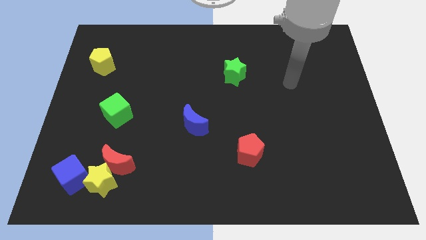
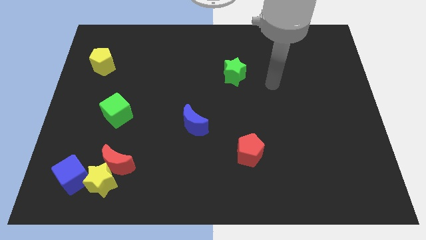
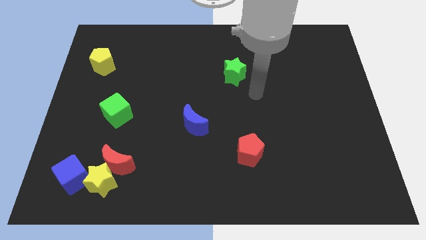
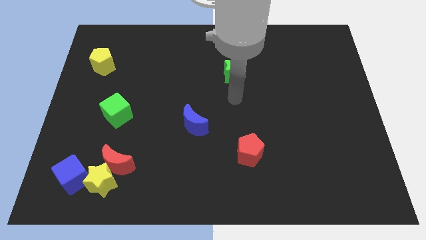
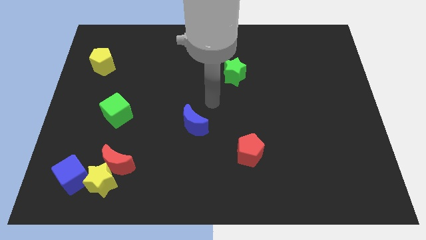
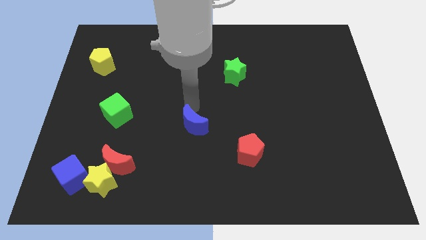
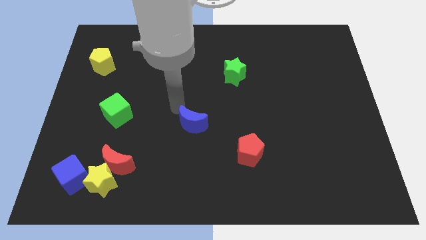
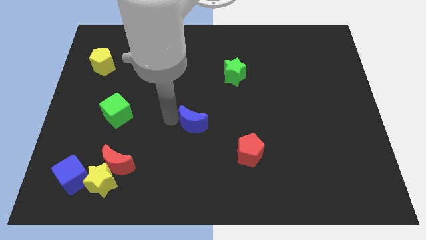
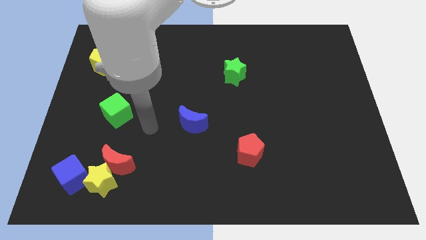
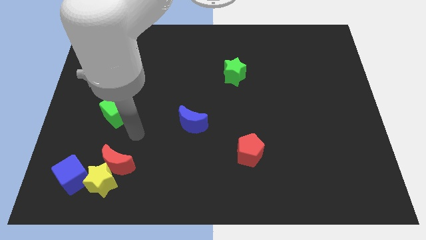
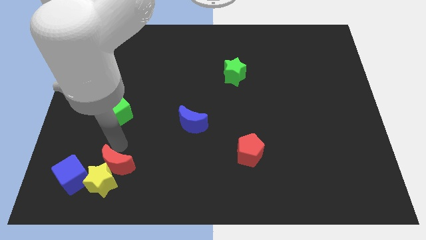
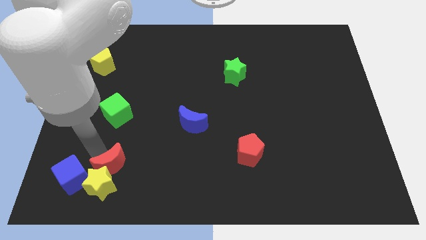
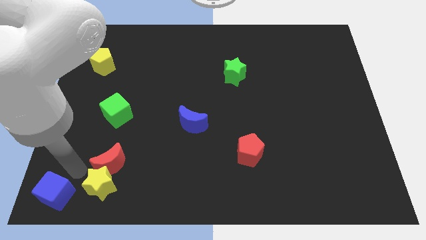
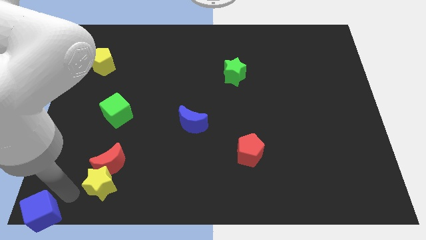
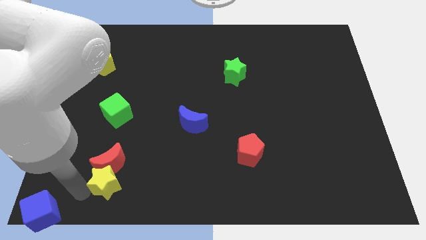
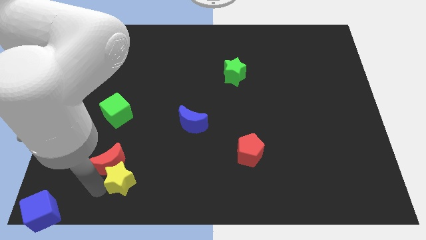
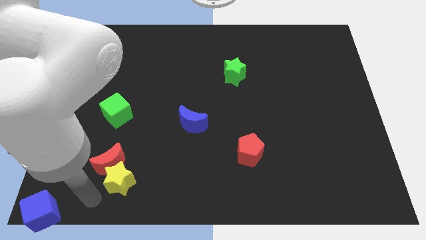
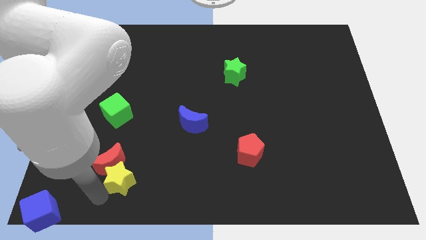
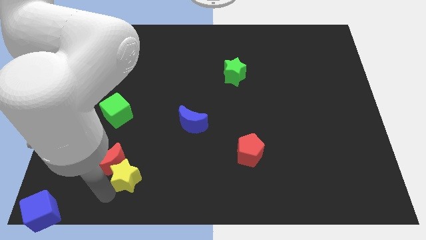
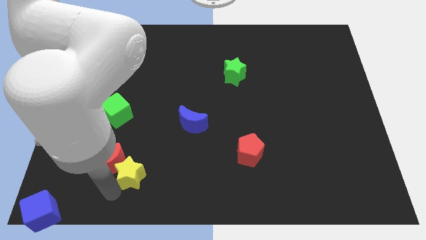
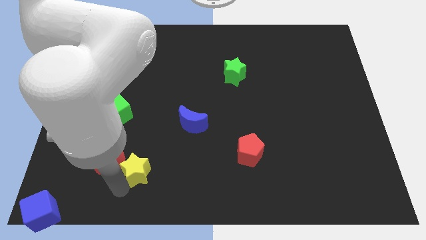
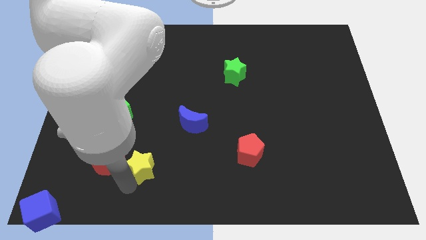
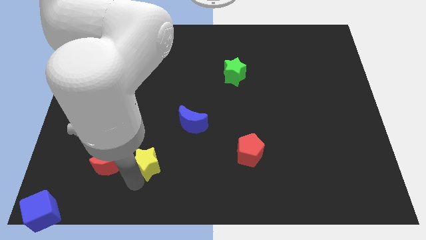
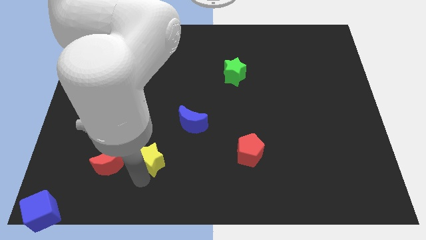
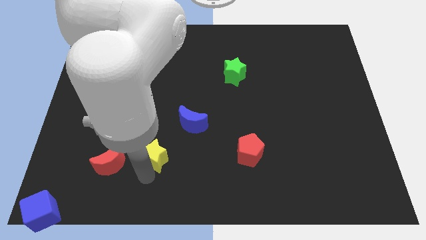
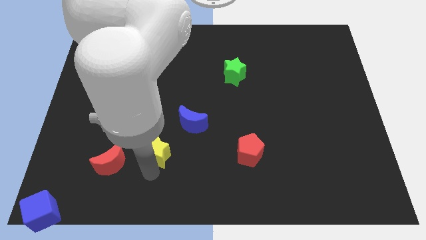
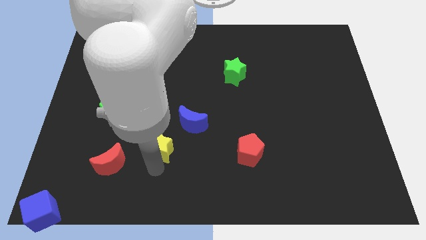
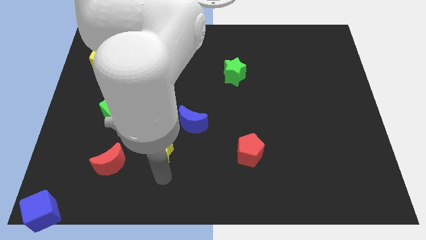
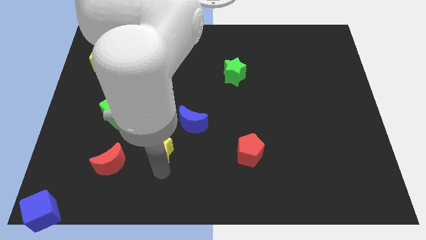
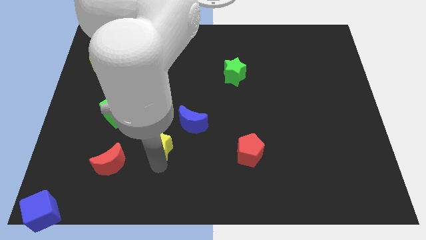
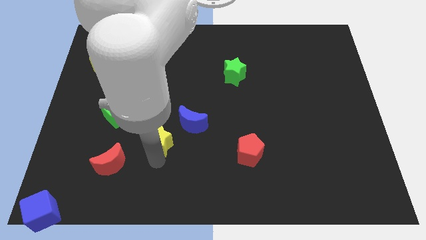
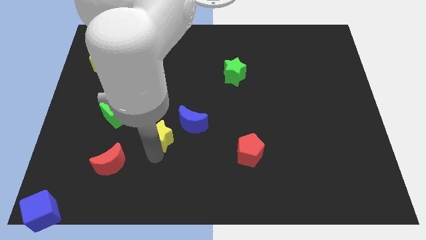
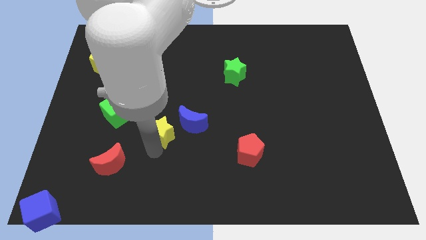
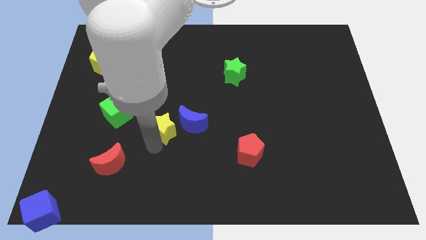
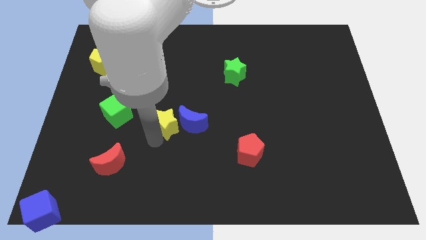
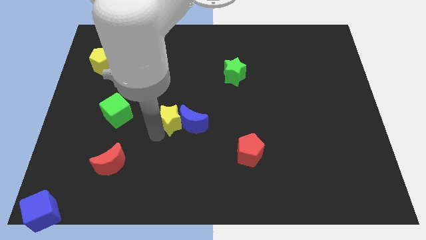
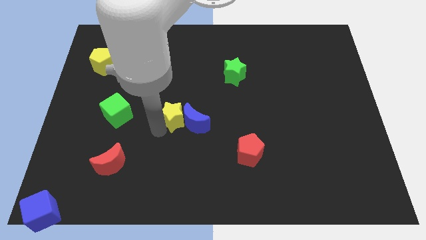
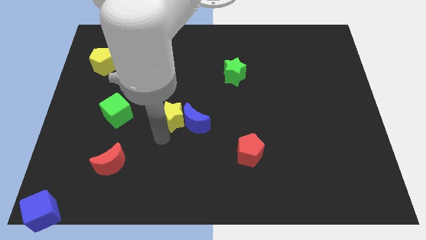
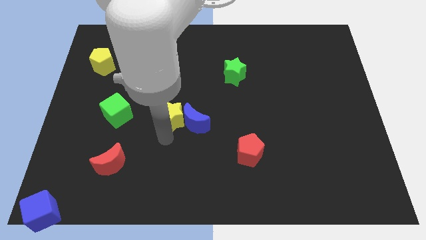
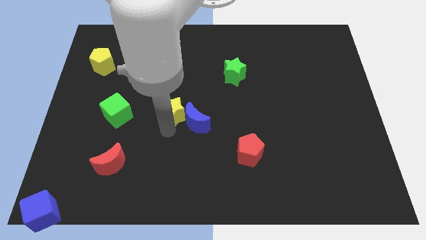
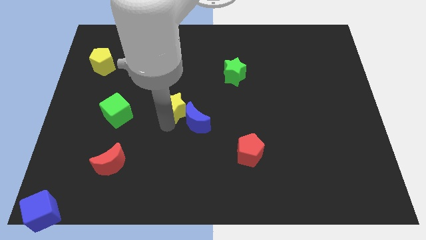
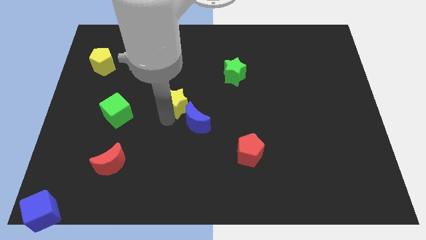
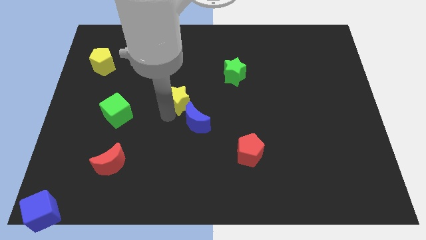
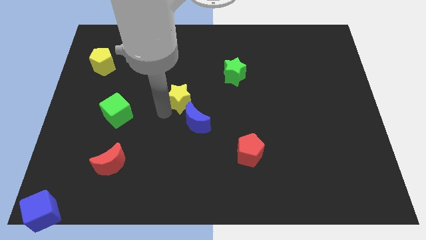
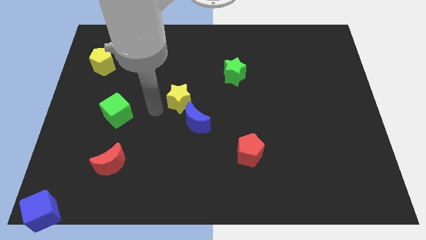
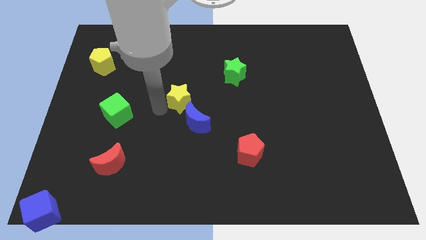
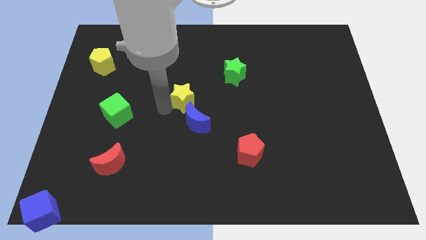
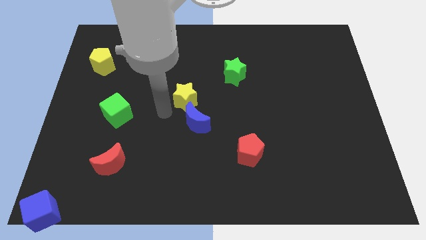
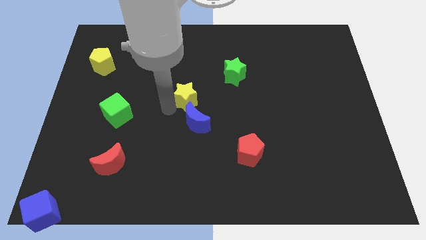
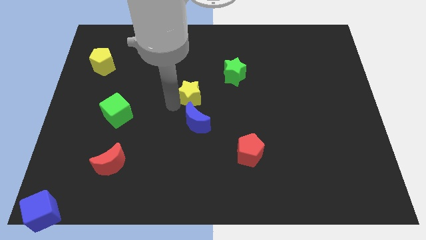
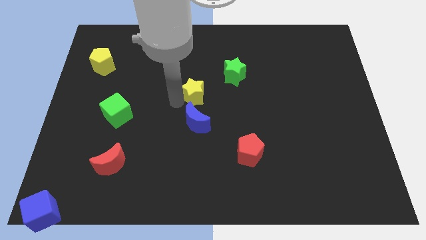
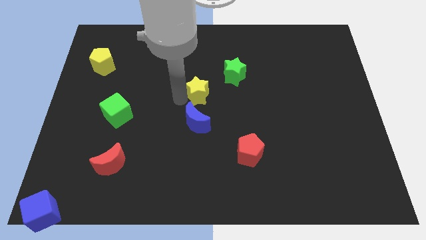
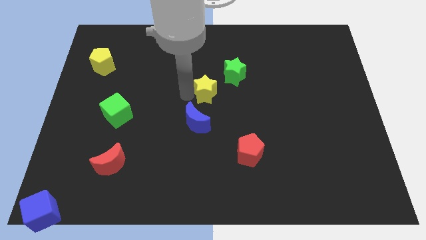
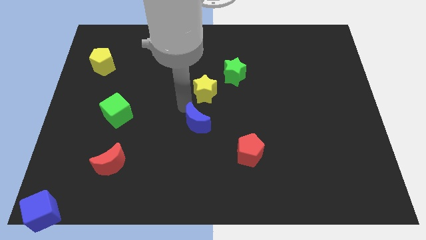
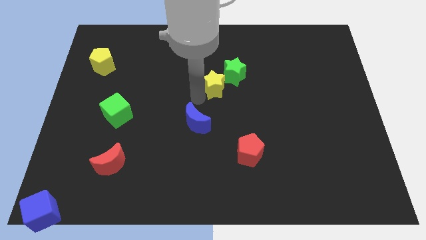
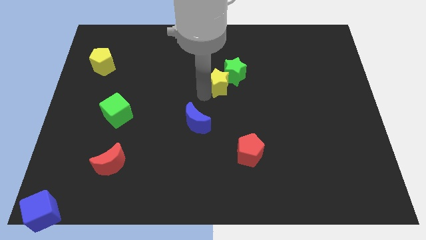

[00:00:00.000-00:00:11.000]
move the yellow star close to the green star
